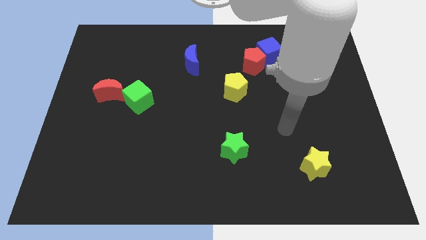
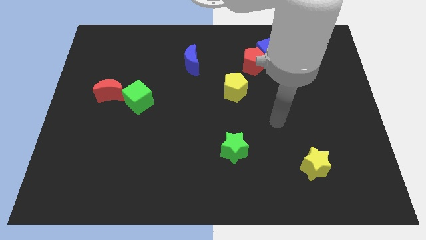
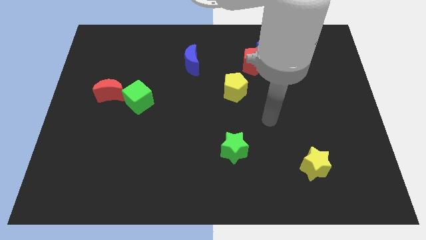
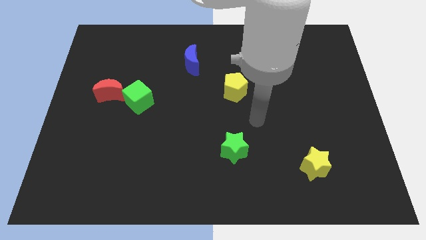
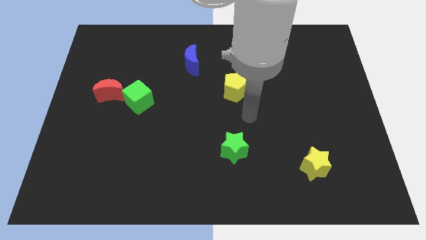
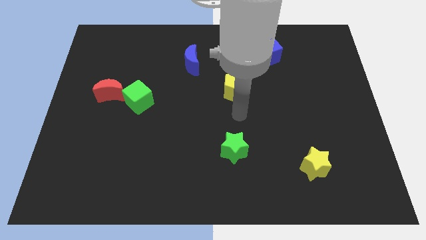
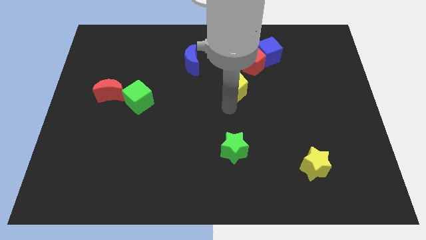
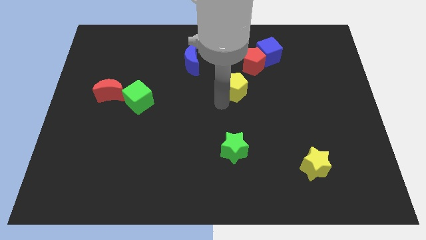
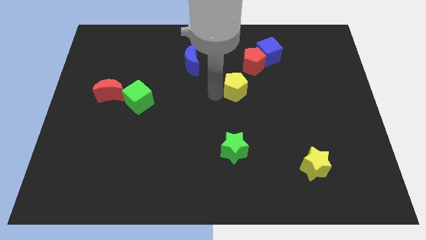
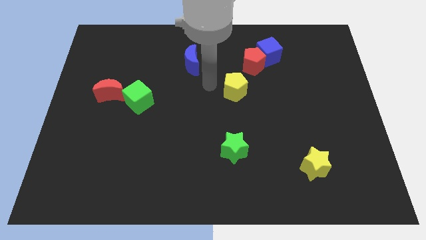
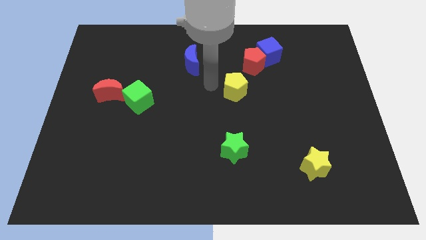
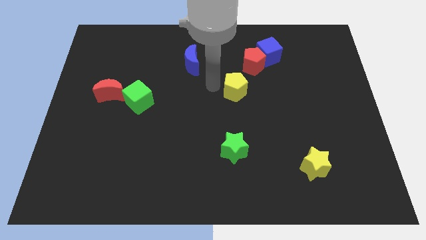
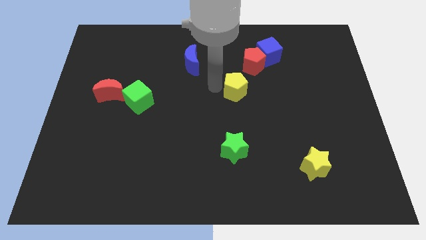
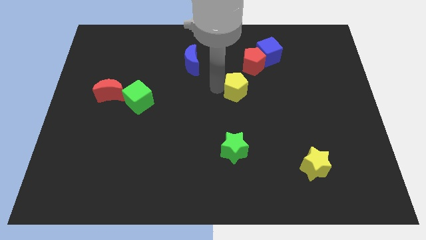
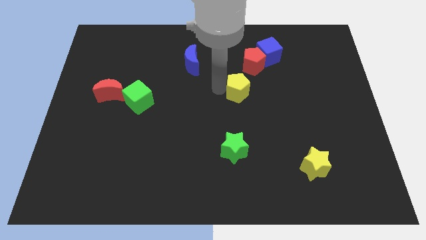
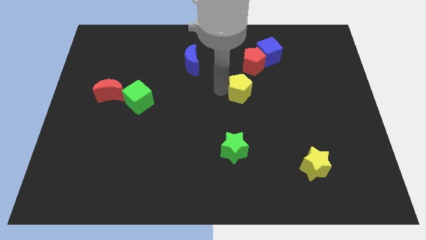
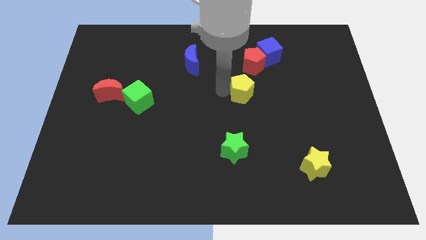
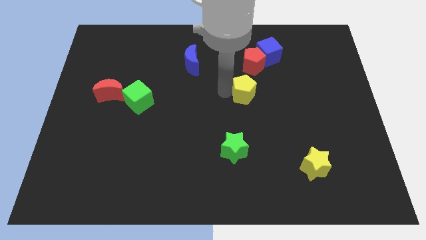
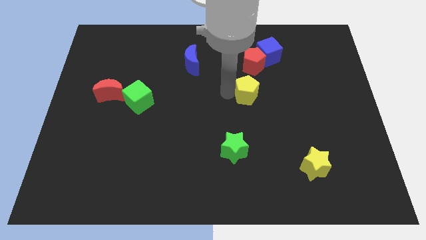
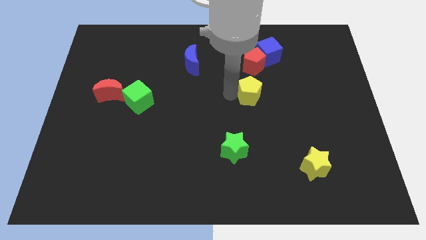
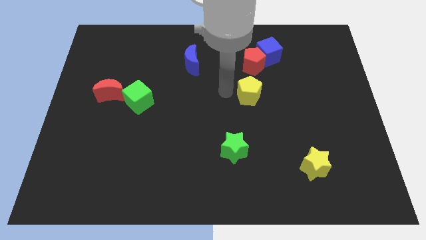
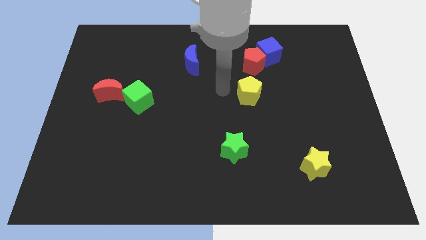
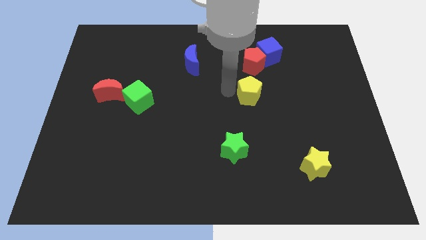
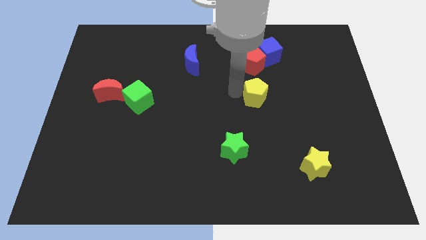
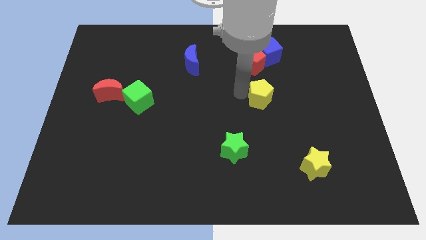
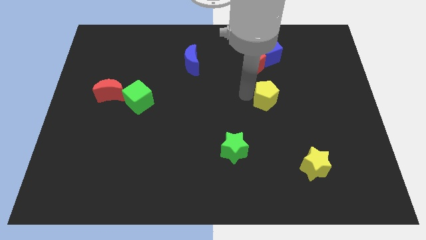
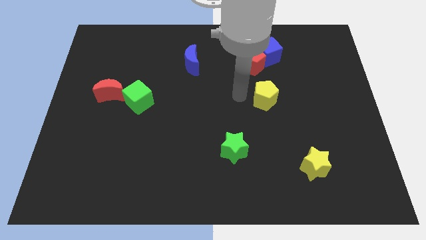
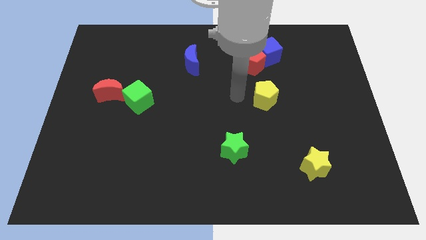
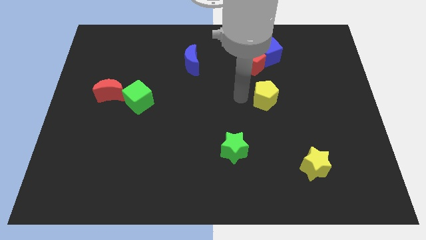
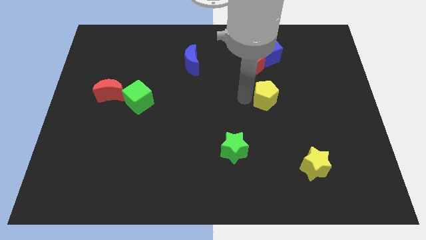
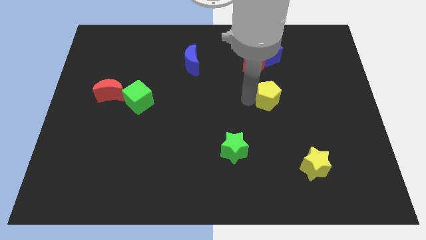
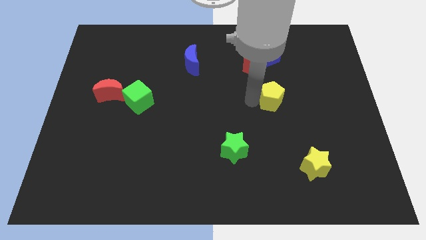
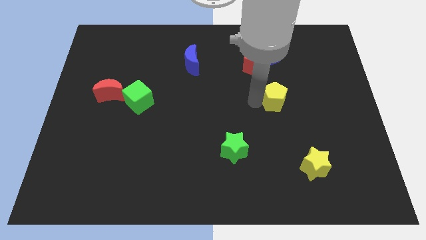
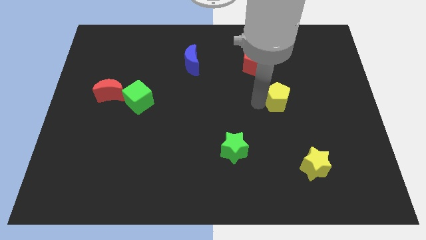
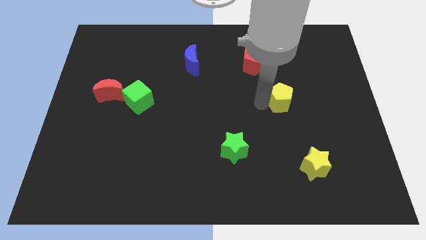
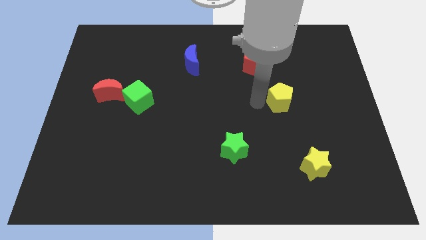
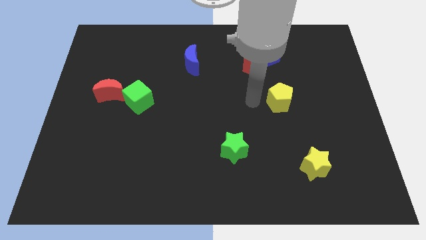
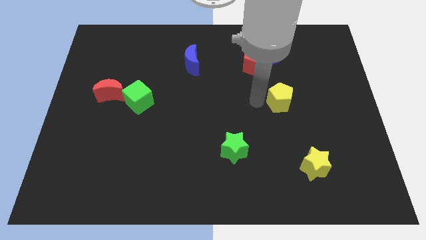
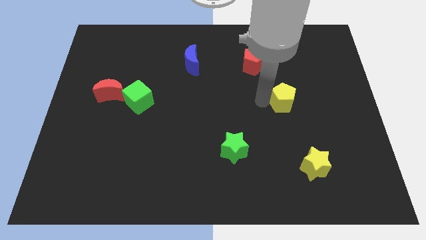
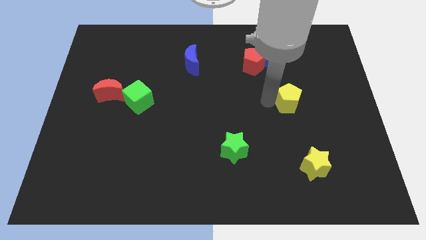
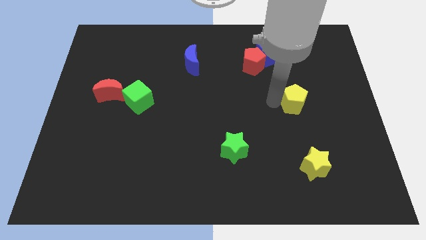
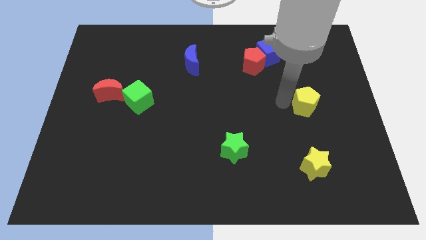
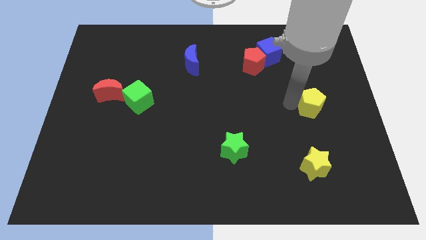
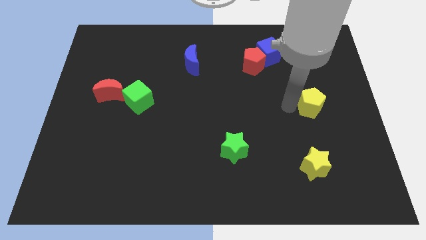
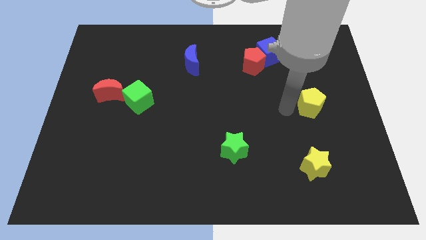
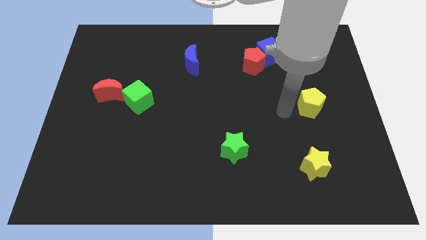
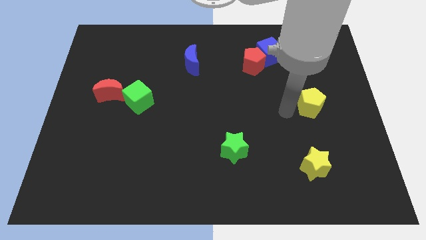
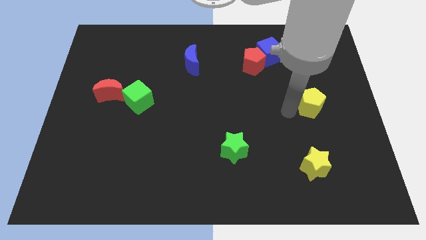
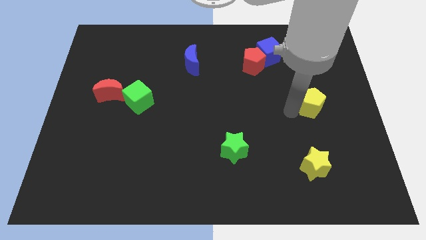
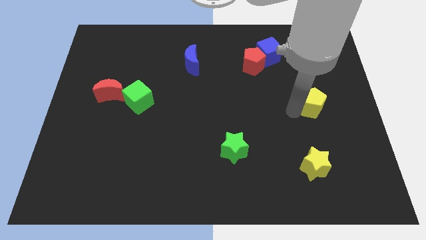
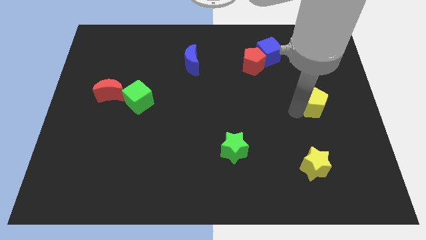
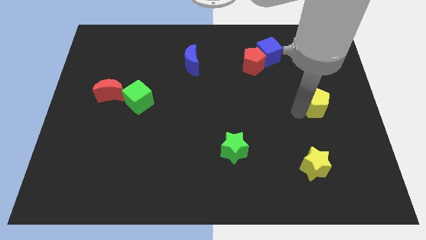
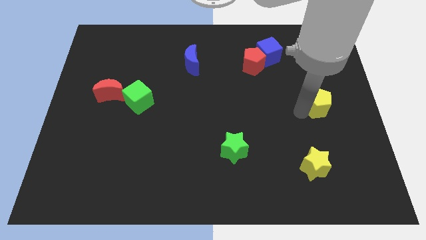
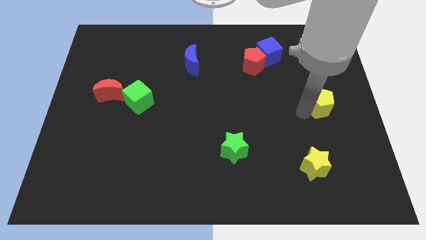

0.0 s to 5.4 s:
push the yellow pentagon to the right side of the board

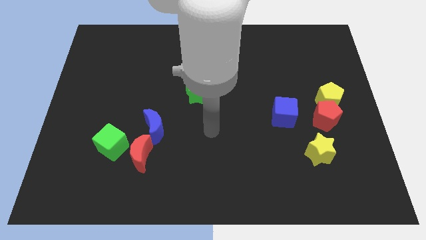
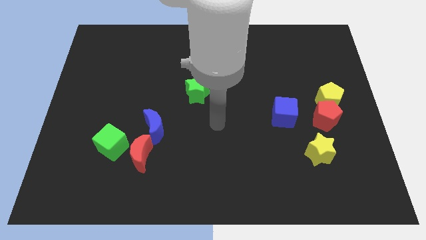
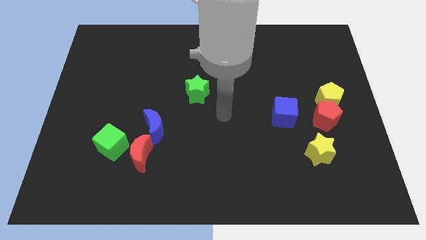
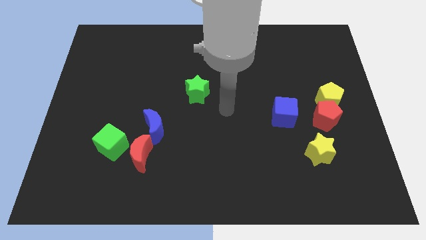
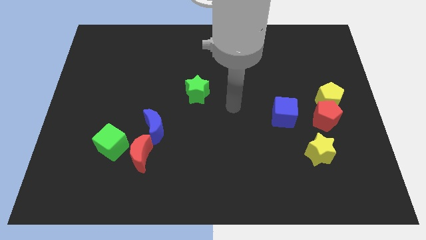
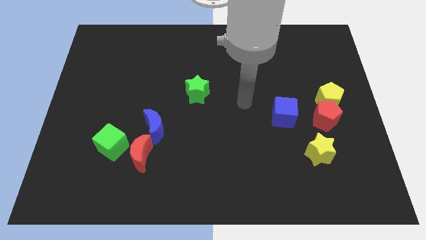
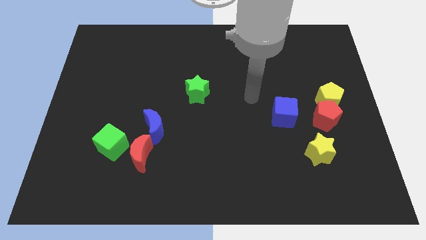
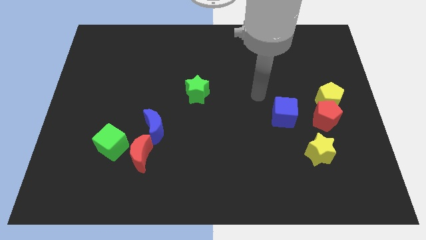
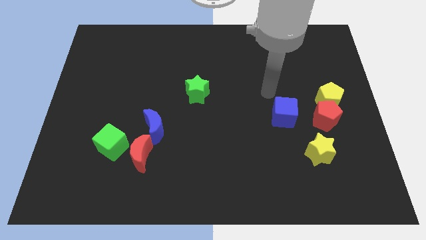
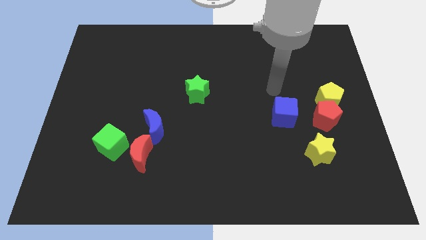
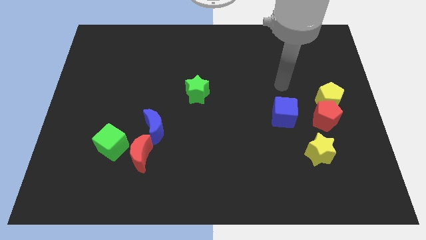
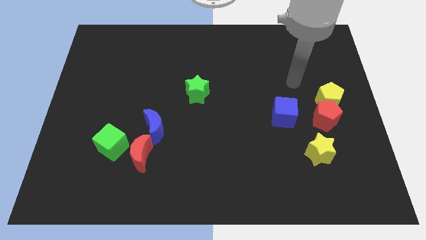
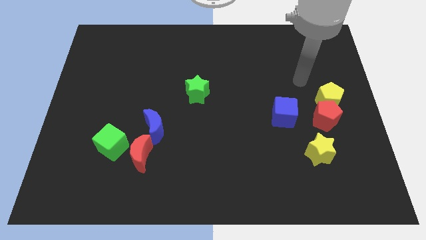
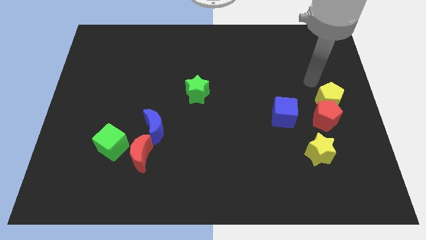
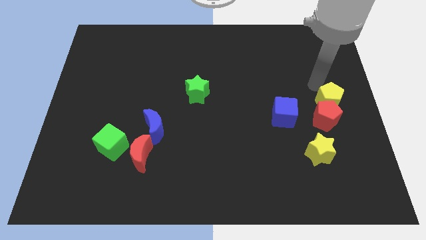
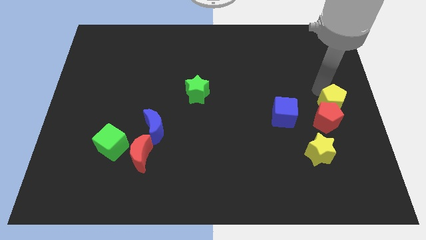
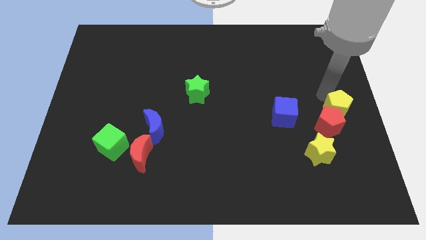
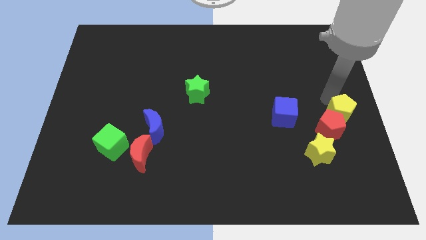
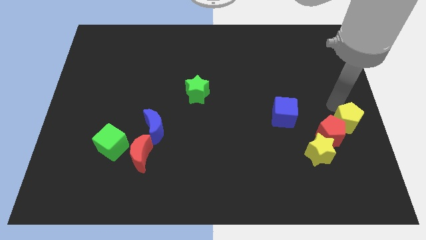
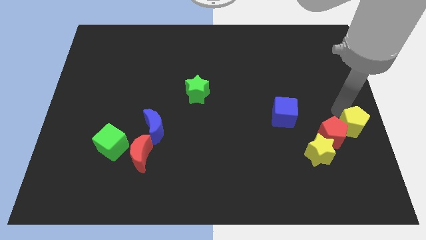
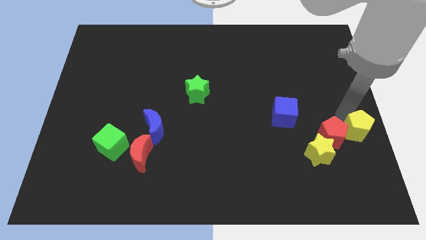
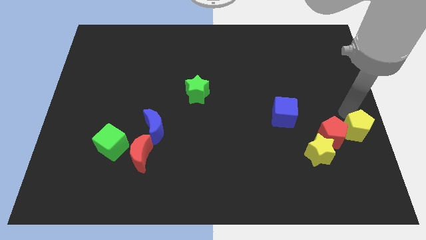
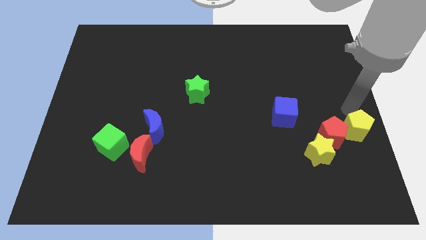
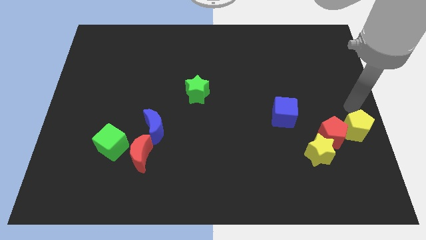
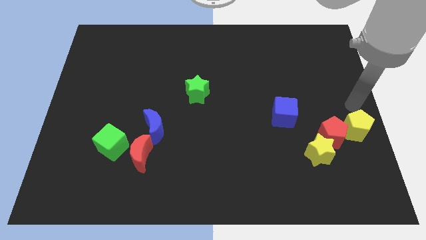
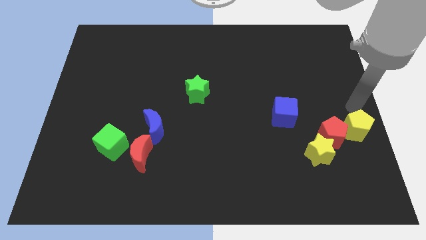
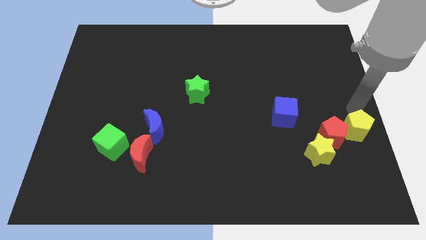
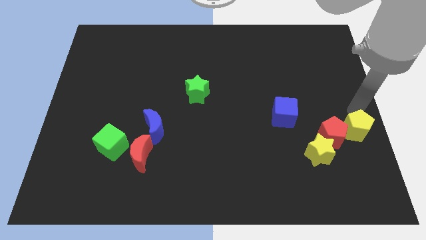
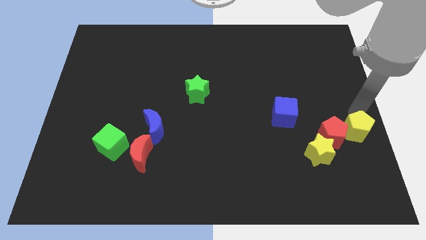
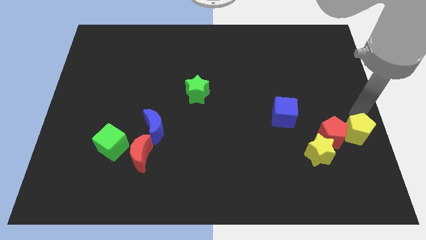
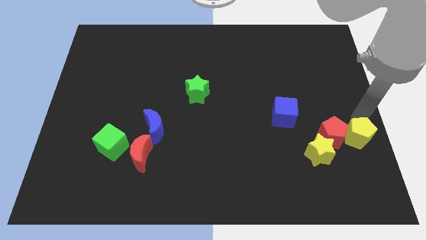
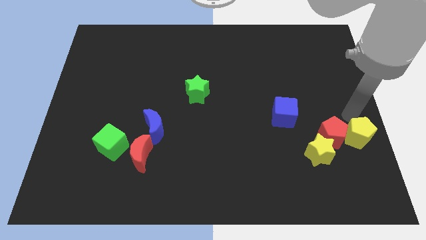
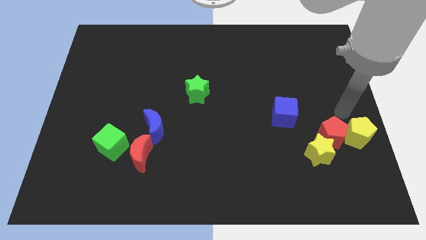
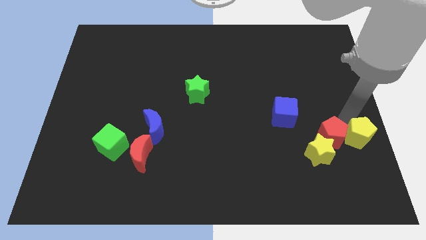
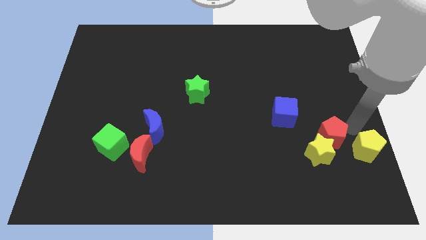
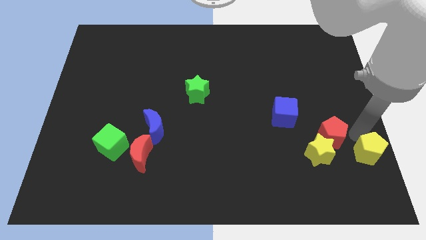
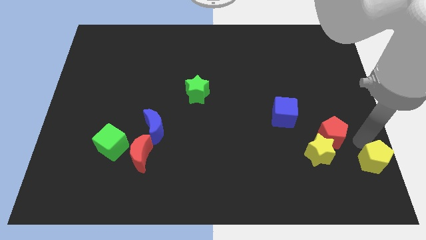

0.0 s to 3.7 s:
push the yellow pentagon to the bottom right
